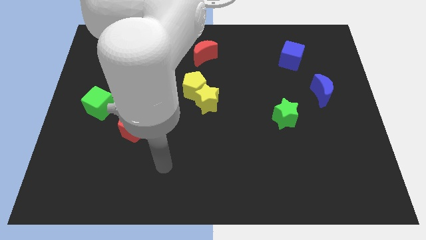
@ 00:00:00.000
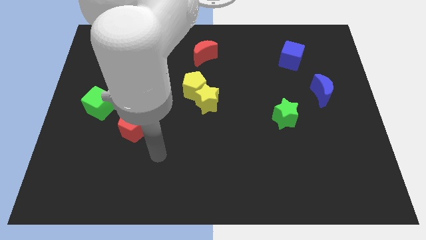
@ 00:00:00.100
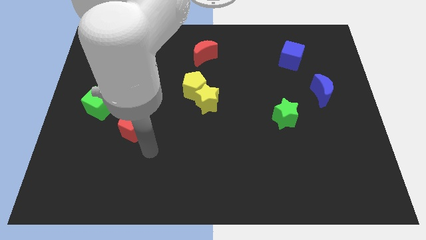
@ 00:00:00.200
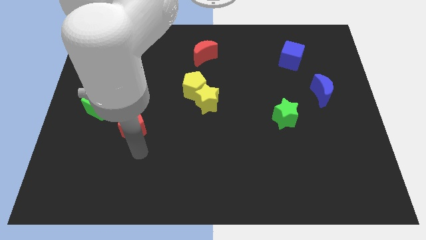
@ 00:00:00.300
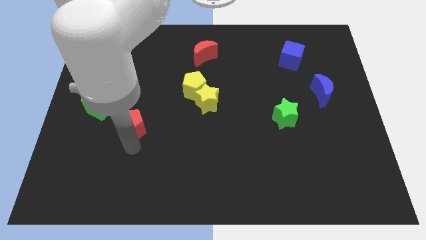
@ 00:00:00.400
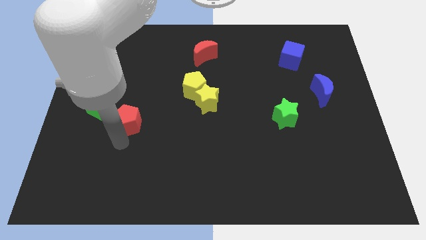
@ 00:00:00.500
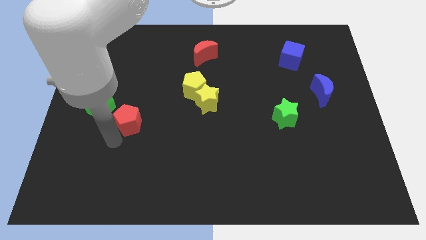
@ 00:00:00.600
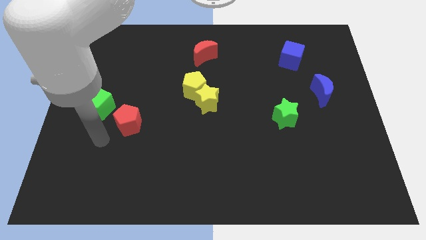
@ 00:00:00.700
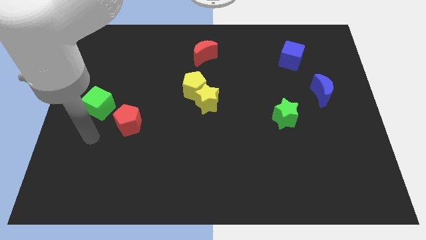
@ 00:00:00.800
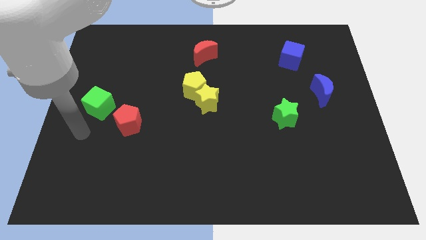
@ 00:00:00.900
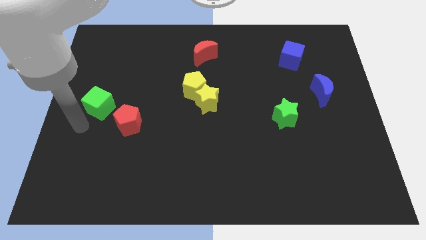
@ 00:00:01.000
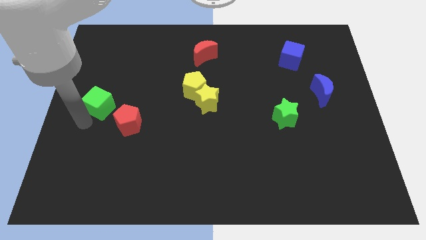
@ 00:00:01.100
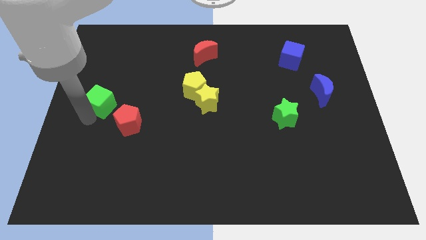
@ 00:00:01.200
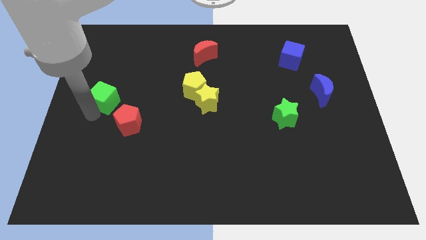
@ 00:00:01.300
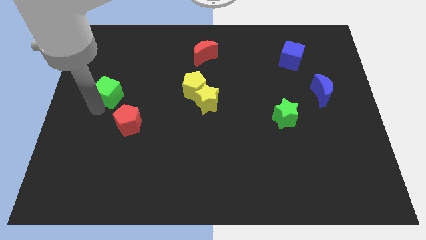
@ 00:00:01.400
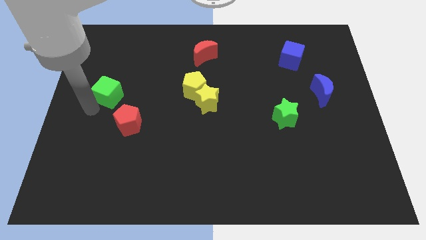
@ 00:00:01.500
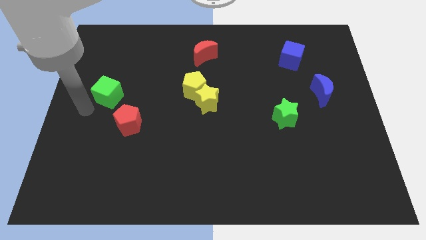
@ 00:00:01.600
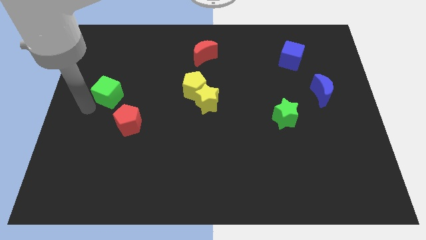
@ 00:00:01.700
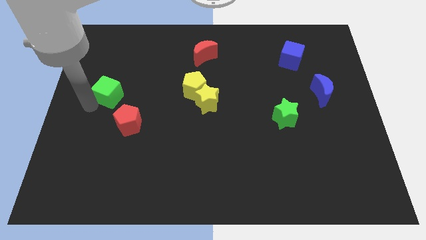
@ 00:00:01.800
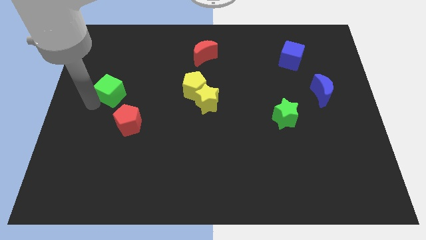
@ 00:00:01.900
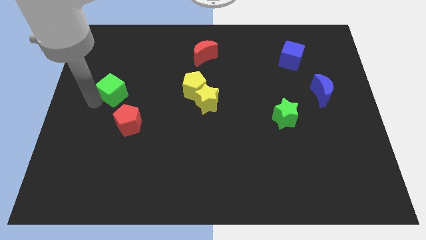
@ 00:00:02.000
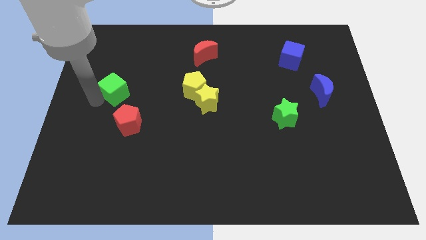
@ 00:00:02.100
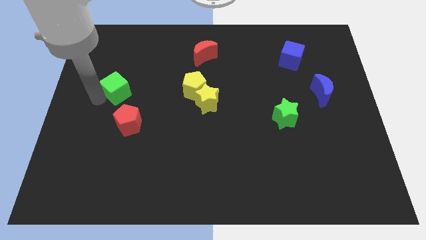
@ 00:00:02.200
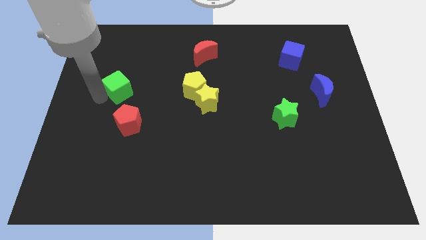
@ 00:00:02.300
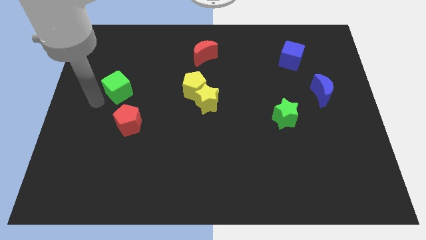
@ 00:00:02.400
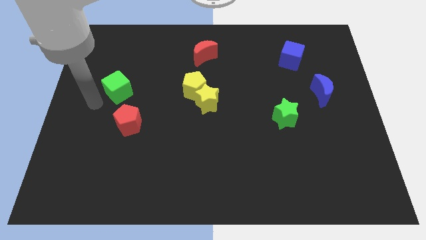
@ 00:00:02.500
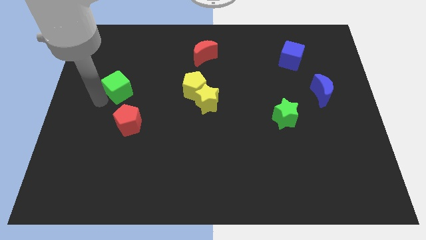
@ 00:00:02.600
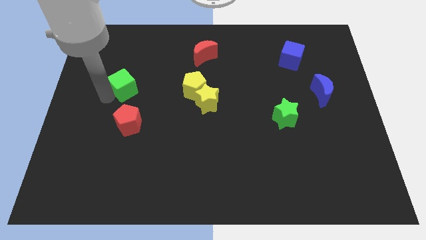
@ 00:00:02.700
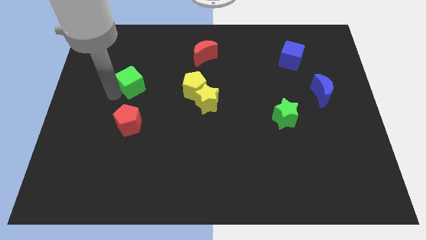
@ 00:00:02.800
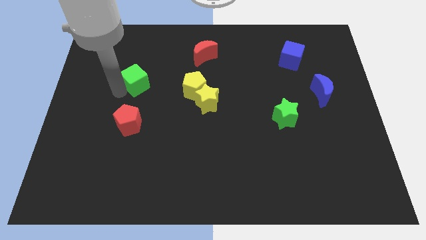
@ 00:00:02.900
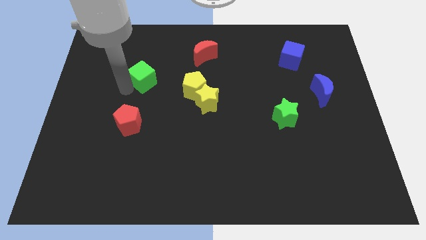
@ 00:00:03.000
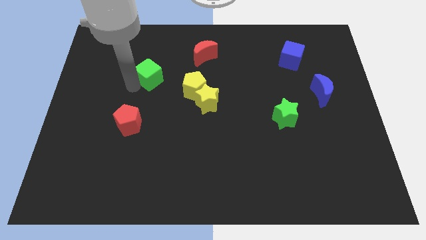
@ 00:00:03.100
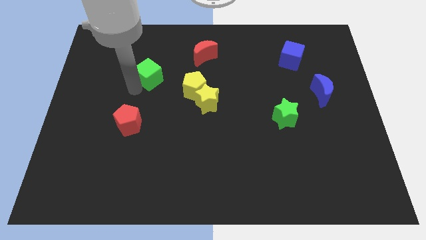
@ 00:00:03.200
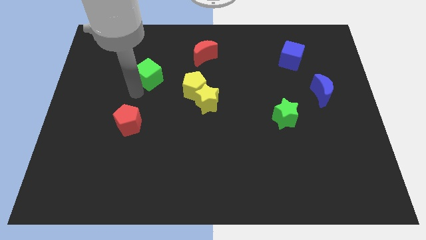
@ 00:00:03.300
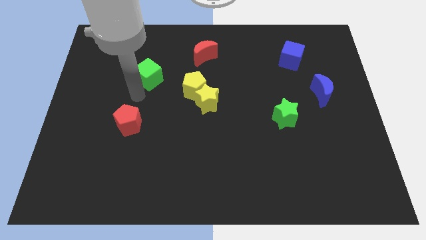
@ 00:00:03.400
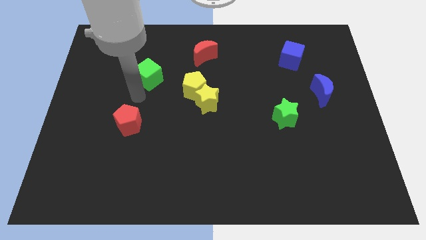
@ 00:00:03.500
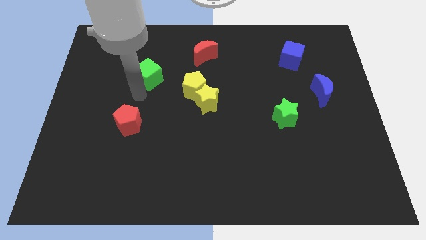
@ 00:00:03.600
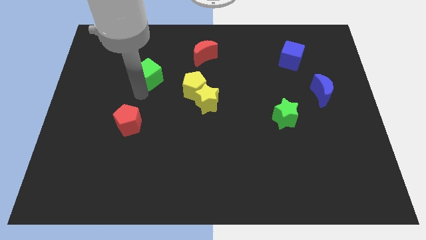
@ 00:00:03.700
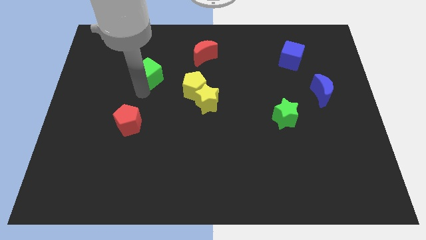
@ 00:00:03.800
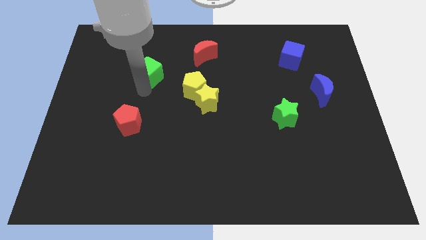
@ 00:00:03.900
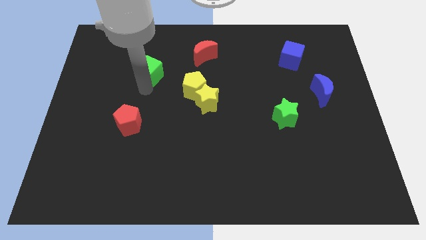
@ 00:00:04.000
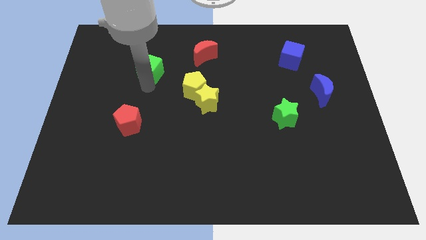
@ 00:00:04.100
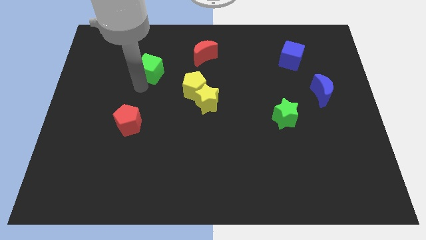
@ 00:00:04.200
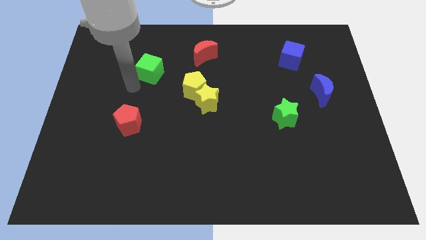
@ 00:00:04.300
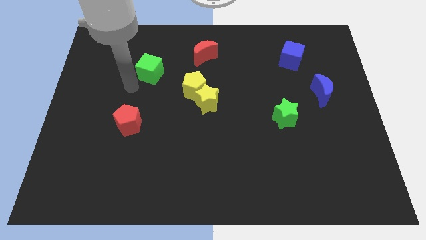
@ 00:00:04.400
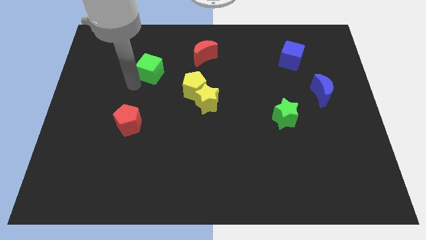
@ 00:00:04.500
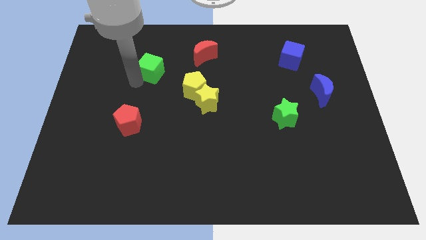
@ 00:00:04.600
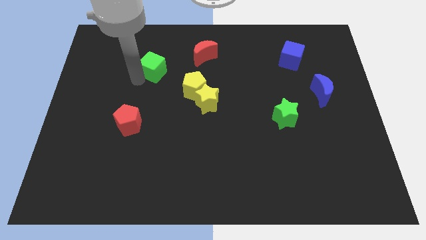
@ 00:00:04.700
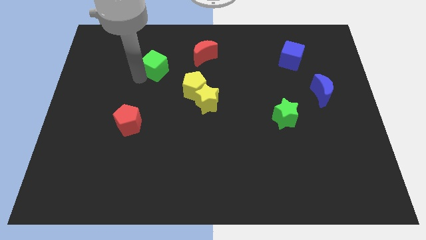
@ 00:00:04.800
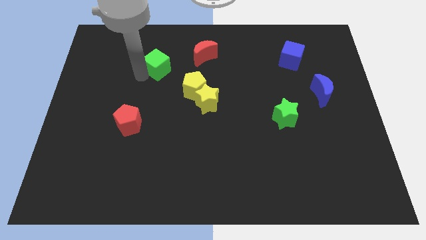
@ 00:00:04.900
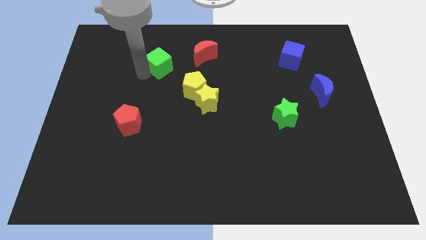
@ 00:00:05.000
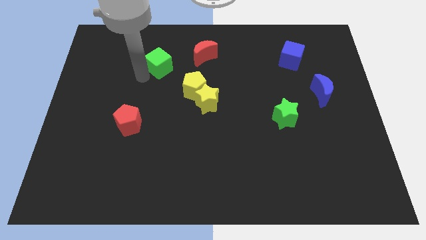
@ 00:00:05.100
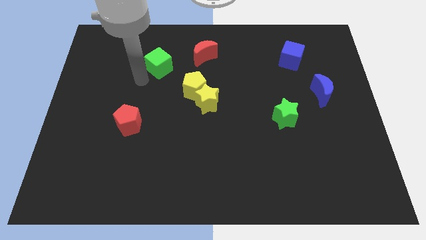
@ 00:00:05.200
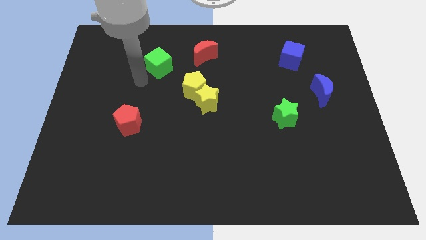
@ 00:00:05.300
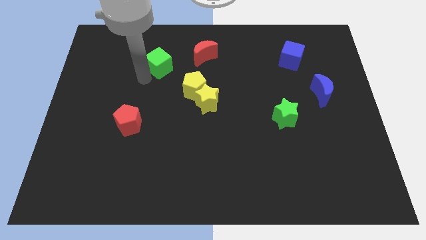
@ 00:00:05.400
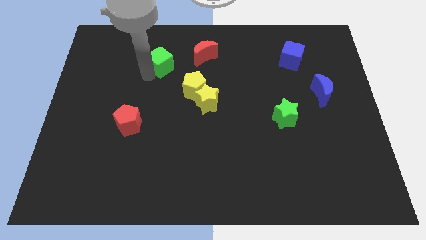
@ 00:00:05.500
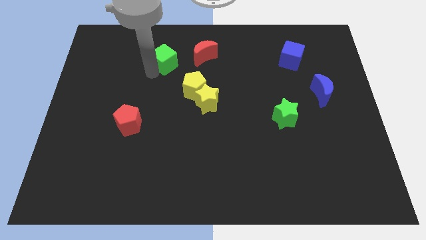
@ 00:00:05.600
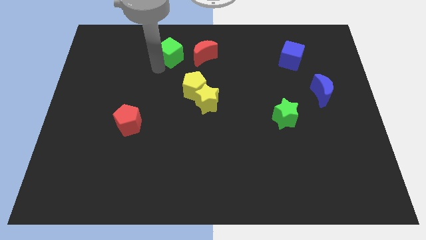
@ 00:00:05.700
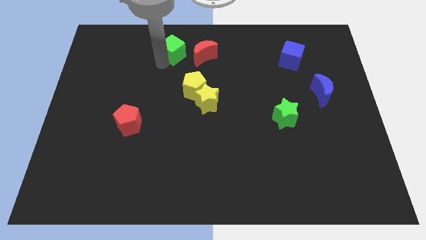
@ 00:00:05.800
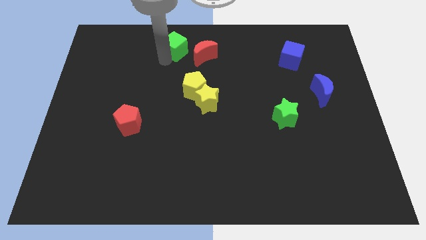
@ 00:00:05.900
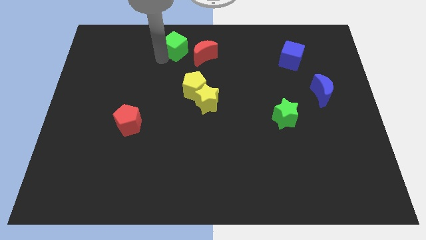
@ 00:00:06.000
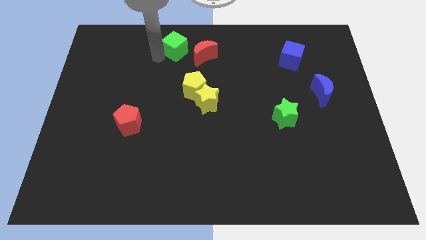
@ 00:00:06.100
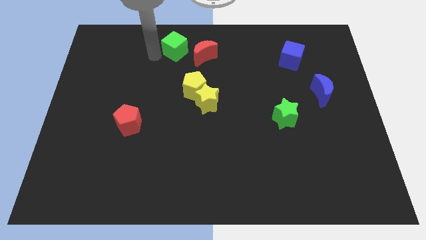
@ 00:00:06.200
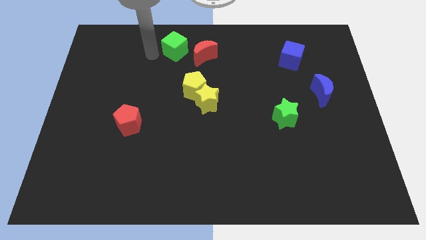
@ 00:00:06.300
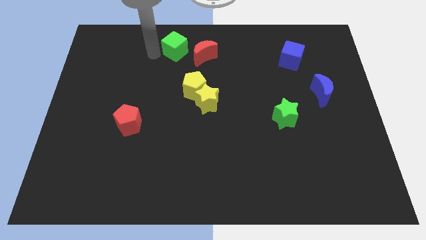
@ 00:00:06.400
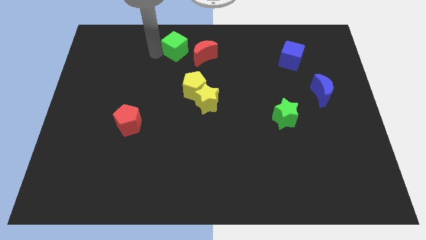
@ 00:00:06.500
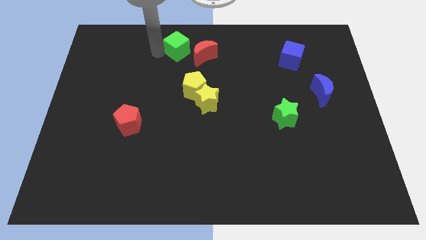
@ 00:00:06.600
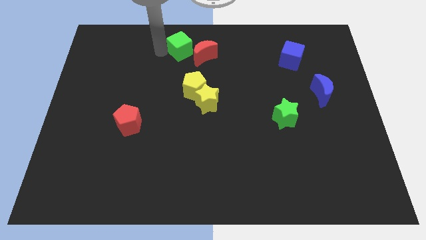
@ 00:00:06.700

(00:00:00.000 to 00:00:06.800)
push the green cube to the top

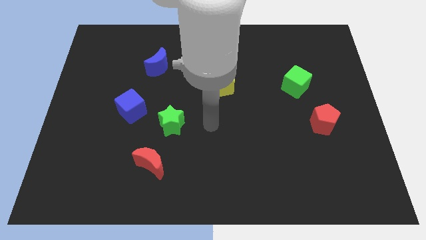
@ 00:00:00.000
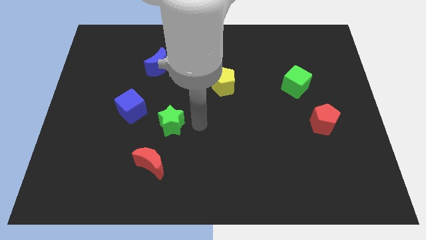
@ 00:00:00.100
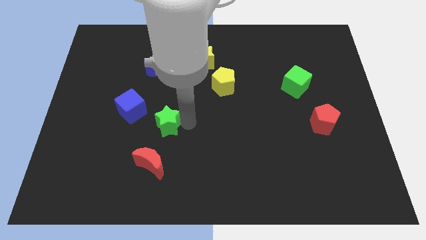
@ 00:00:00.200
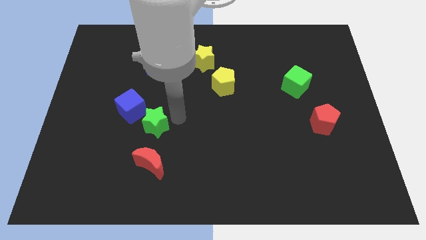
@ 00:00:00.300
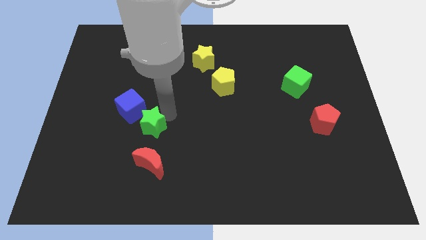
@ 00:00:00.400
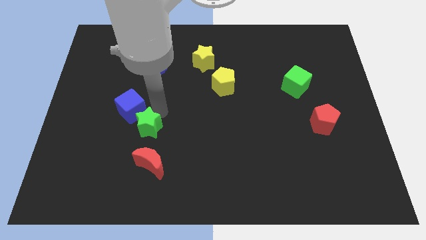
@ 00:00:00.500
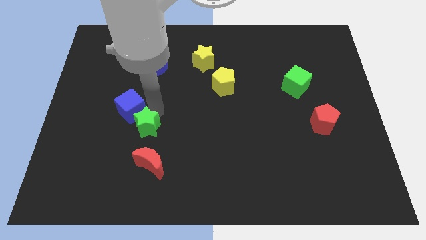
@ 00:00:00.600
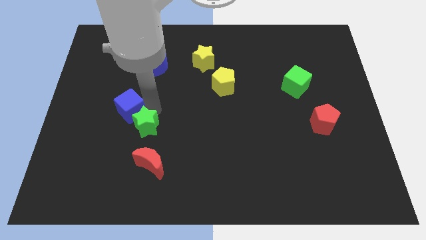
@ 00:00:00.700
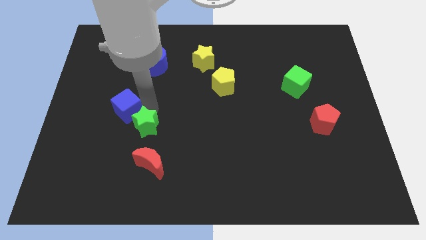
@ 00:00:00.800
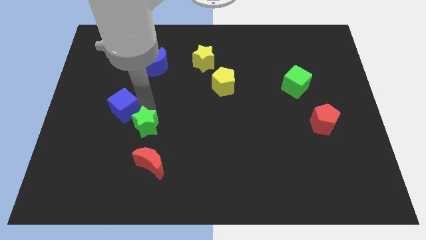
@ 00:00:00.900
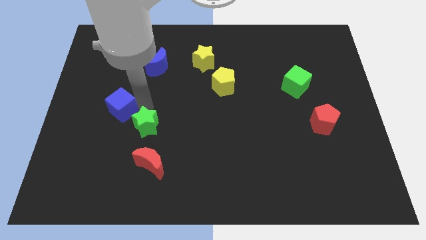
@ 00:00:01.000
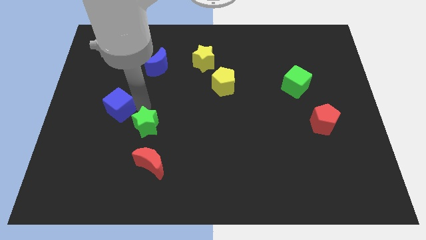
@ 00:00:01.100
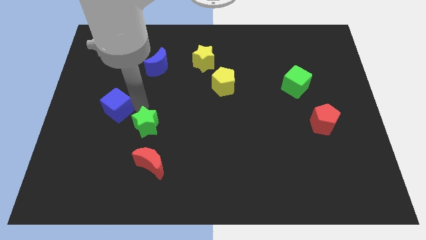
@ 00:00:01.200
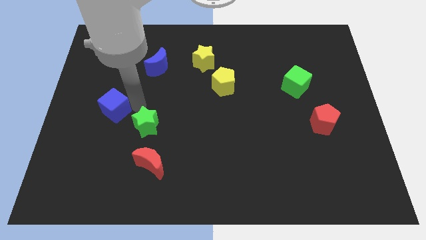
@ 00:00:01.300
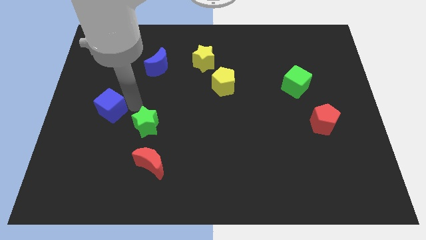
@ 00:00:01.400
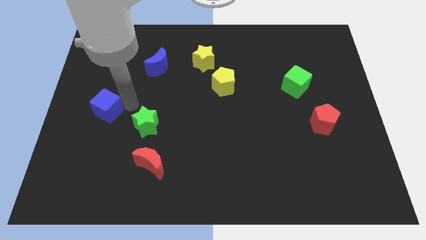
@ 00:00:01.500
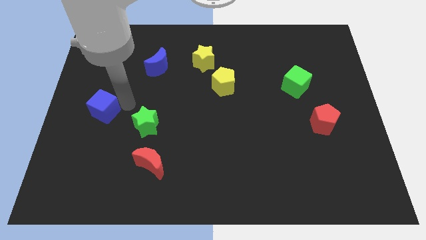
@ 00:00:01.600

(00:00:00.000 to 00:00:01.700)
put the blue cube to the center left
